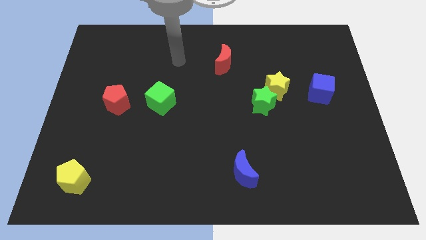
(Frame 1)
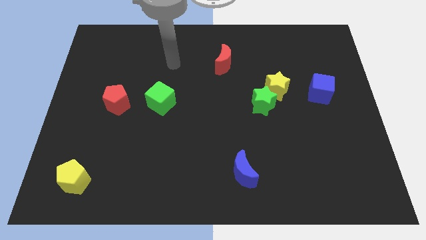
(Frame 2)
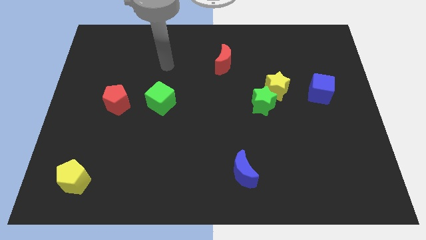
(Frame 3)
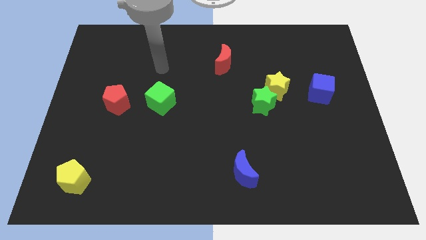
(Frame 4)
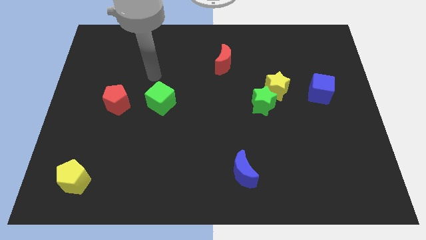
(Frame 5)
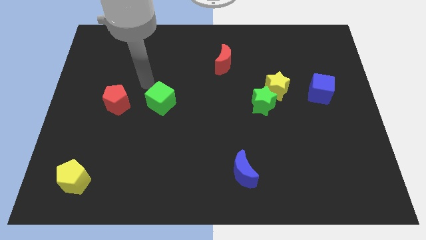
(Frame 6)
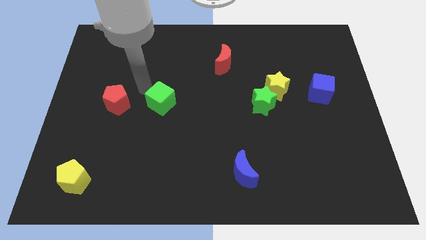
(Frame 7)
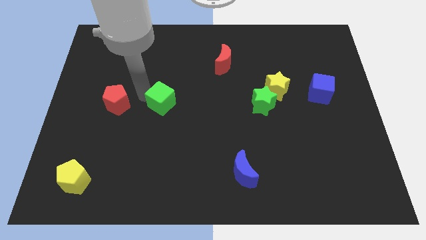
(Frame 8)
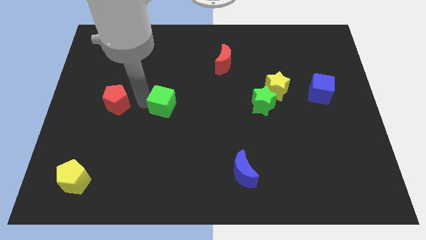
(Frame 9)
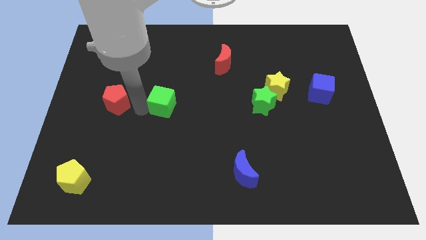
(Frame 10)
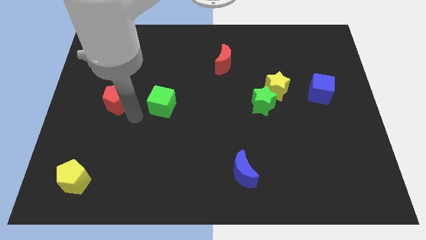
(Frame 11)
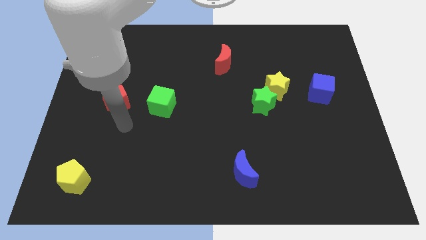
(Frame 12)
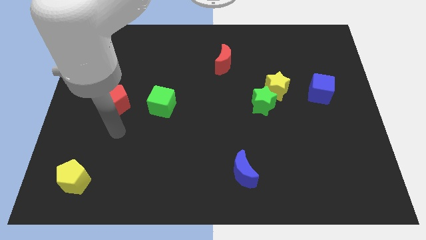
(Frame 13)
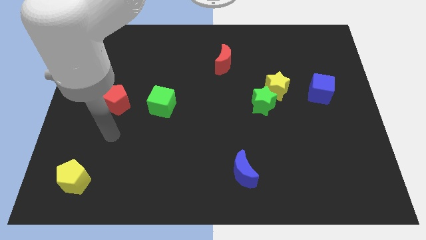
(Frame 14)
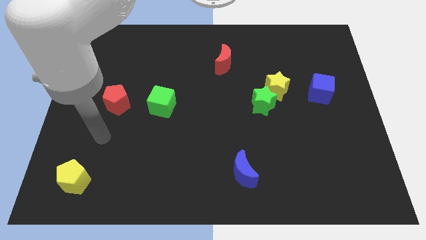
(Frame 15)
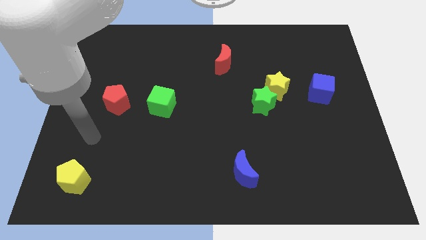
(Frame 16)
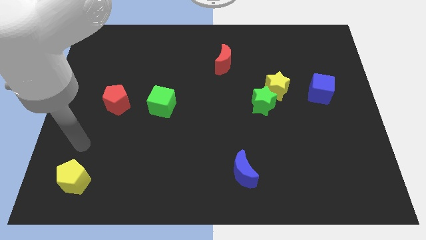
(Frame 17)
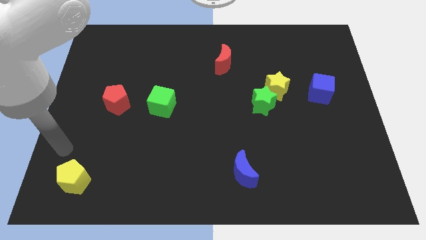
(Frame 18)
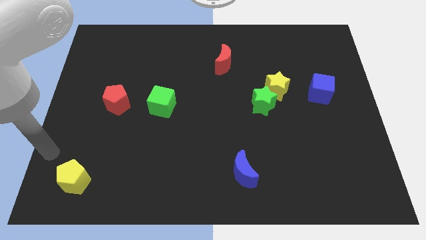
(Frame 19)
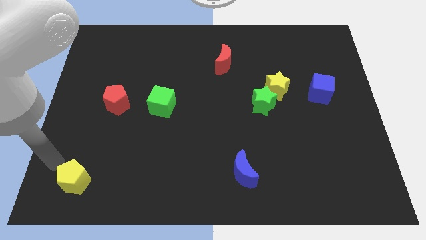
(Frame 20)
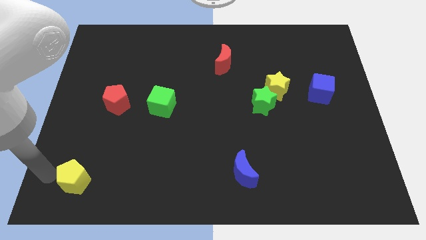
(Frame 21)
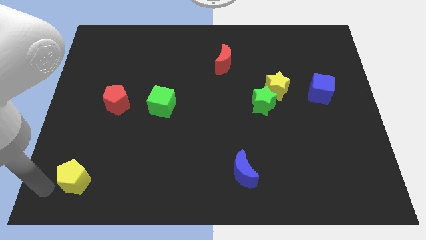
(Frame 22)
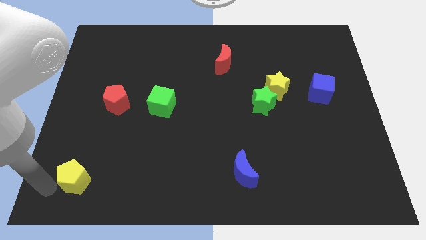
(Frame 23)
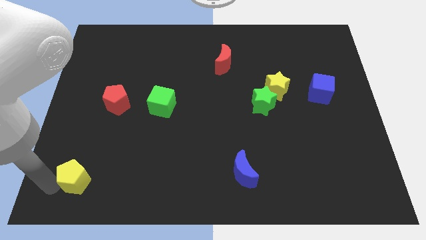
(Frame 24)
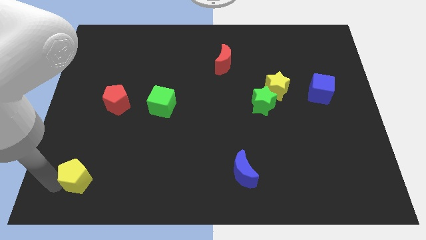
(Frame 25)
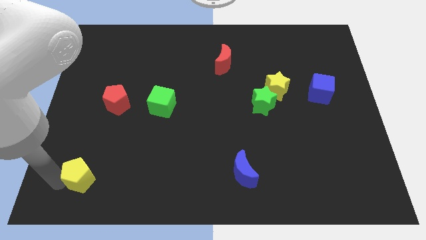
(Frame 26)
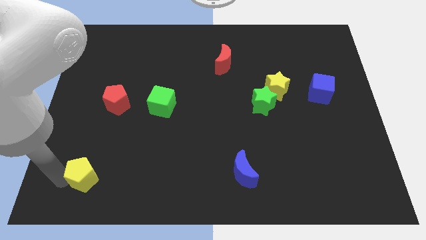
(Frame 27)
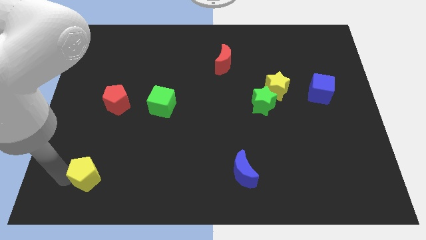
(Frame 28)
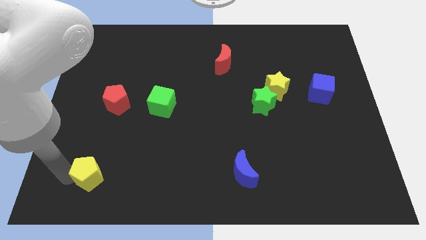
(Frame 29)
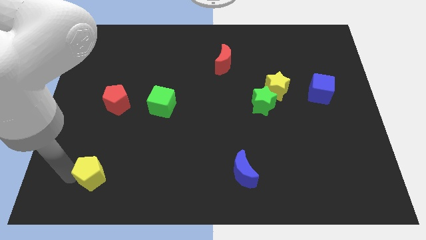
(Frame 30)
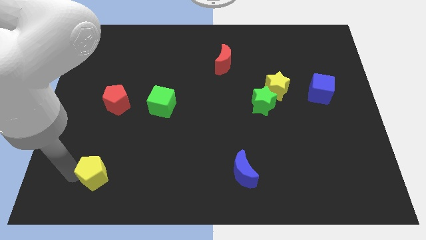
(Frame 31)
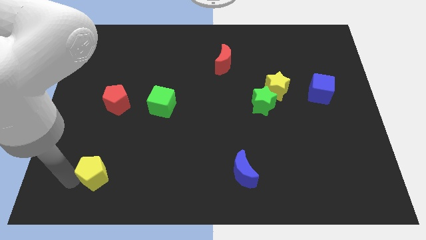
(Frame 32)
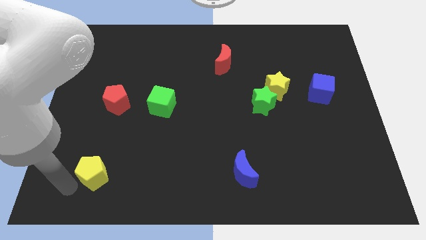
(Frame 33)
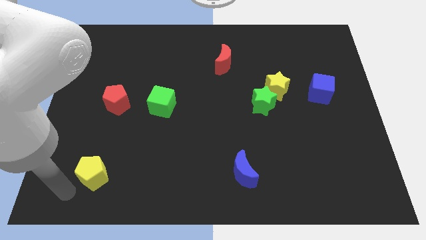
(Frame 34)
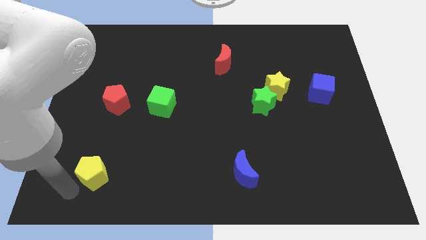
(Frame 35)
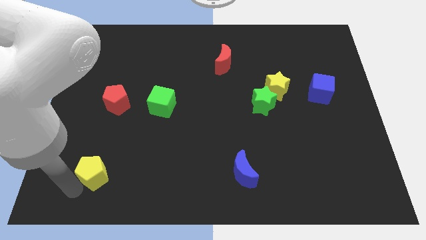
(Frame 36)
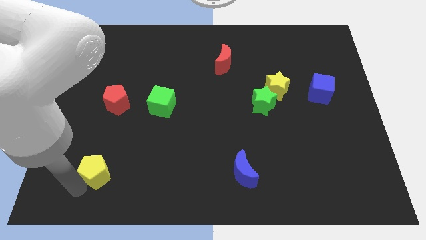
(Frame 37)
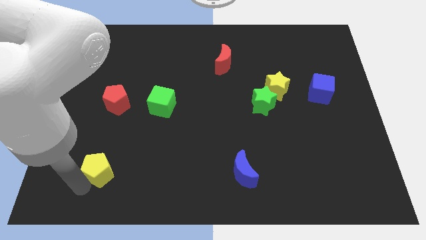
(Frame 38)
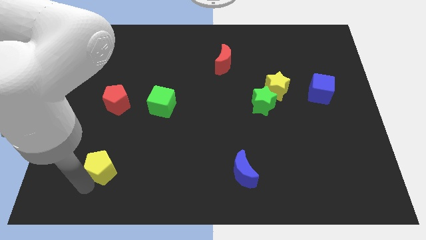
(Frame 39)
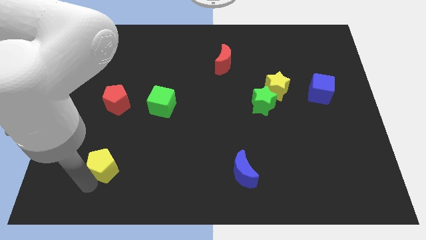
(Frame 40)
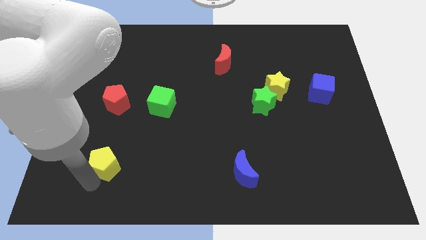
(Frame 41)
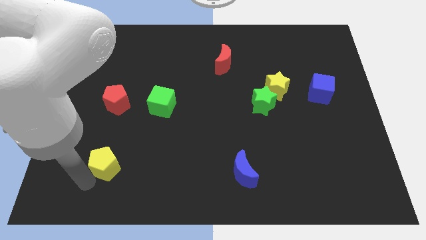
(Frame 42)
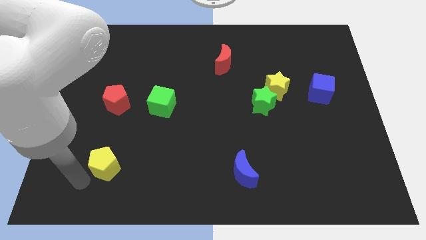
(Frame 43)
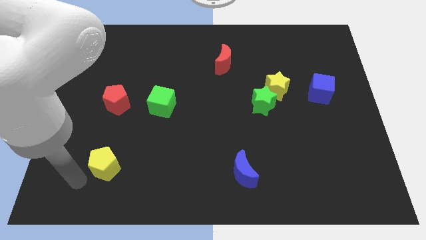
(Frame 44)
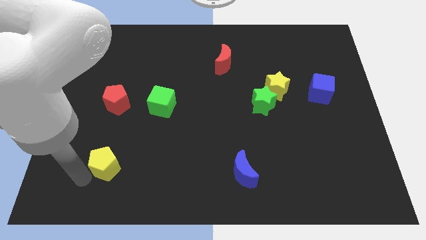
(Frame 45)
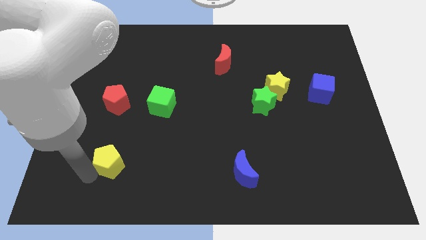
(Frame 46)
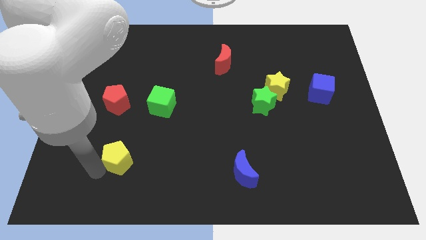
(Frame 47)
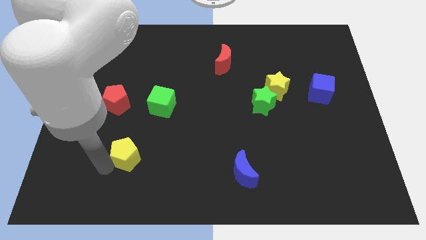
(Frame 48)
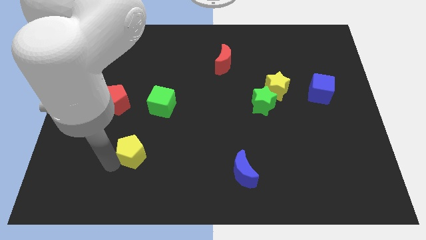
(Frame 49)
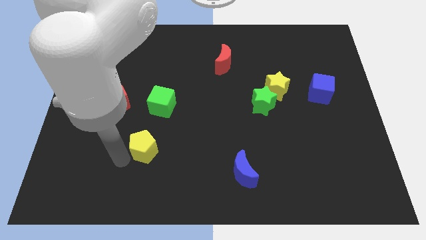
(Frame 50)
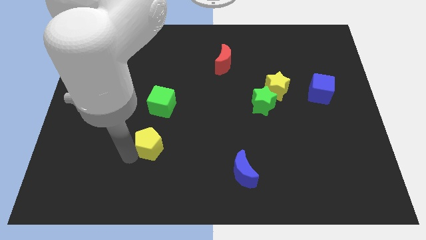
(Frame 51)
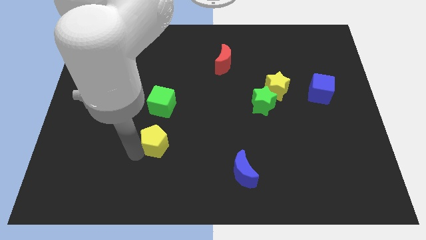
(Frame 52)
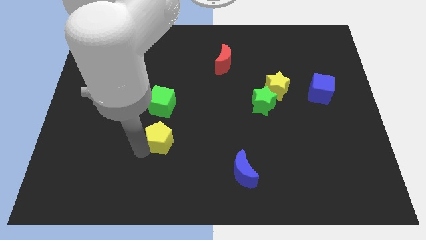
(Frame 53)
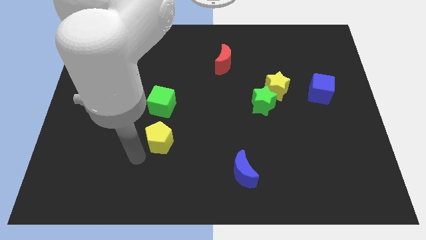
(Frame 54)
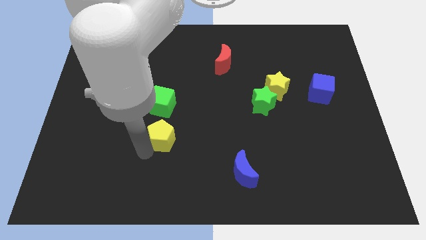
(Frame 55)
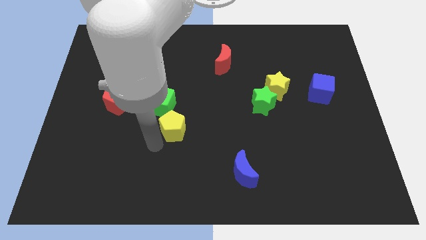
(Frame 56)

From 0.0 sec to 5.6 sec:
move the yellow pentagon to the middle of the board

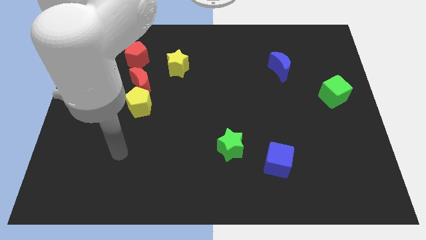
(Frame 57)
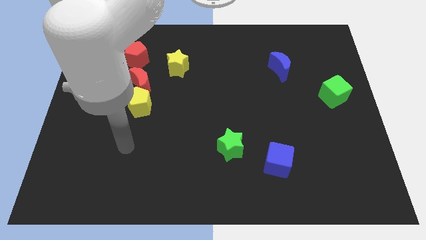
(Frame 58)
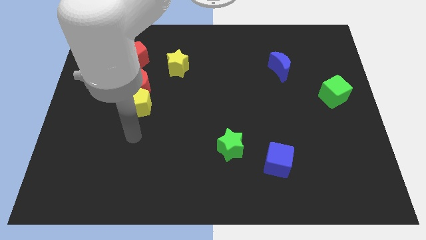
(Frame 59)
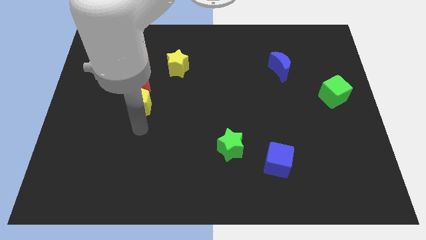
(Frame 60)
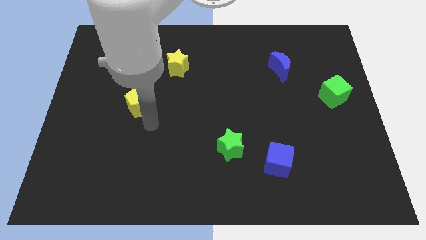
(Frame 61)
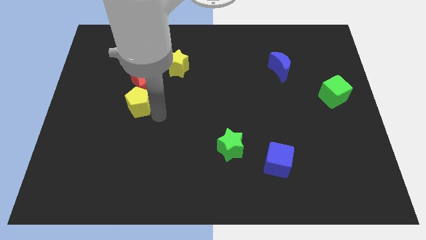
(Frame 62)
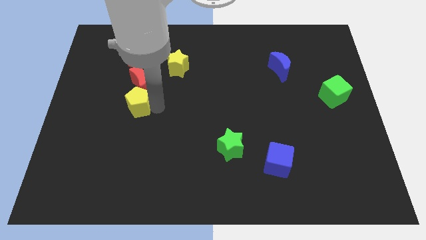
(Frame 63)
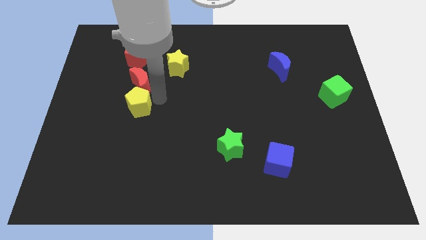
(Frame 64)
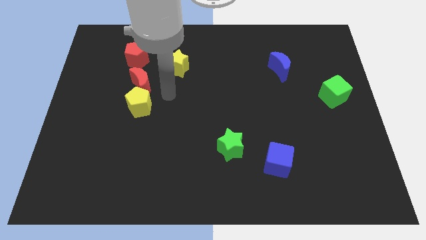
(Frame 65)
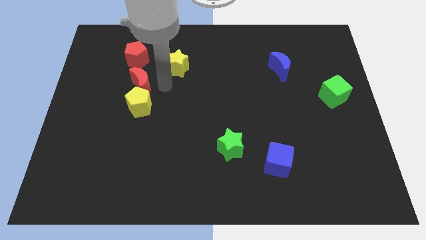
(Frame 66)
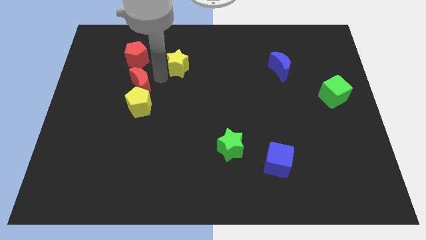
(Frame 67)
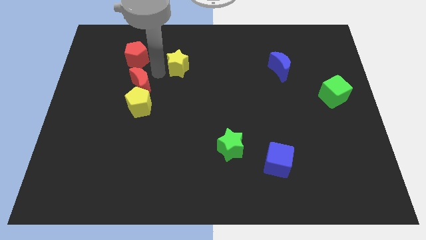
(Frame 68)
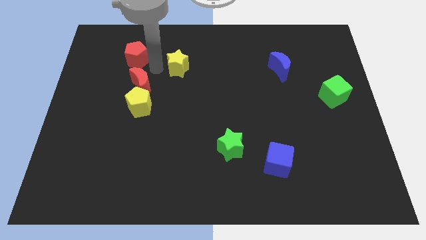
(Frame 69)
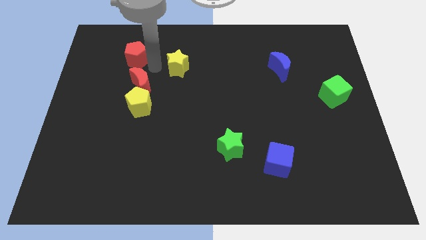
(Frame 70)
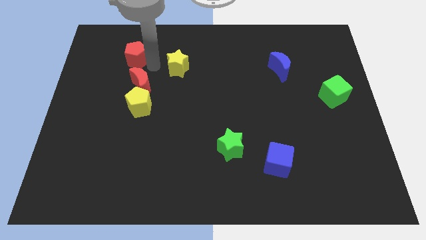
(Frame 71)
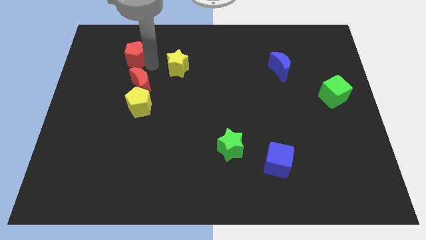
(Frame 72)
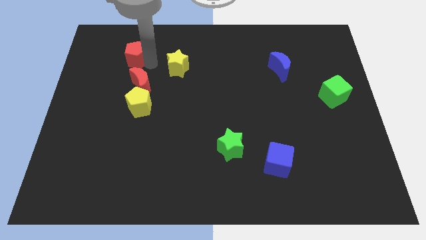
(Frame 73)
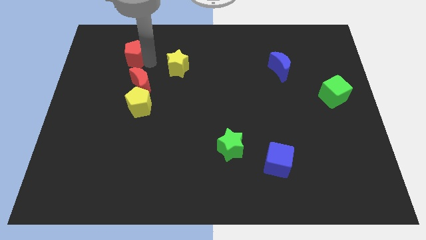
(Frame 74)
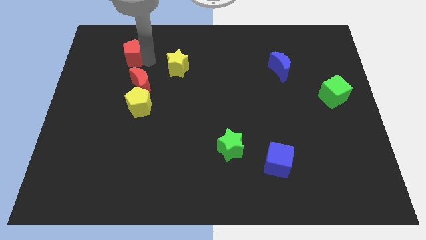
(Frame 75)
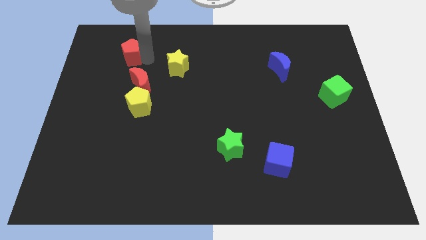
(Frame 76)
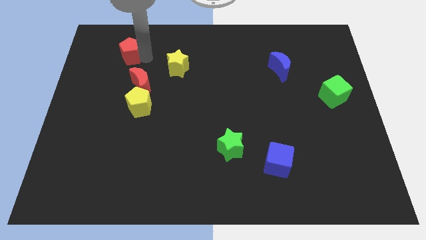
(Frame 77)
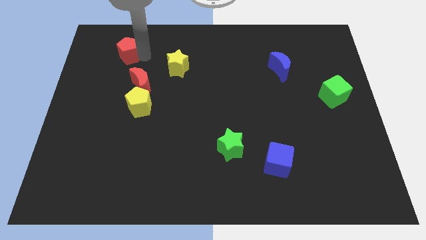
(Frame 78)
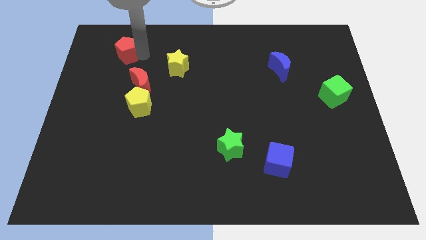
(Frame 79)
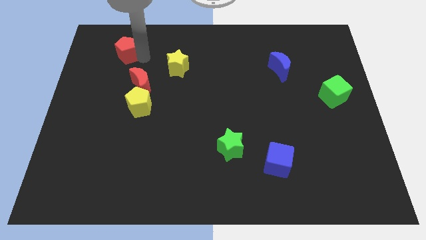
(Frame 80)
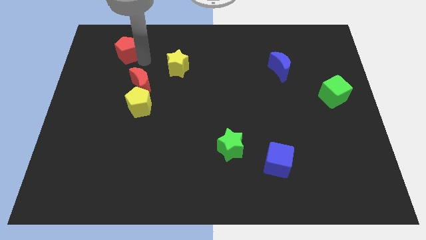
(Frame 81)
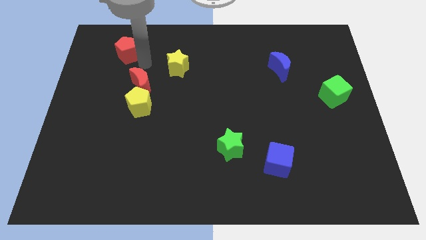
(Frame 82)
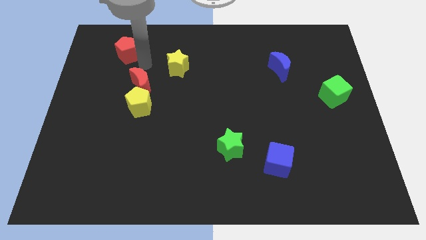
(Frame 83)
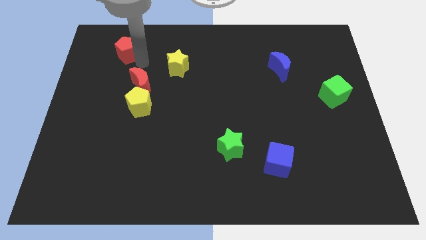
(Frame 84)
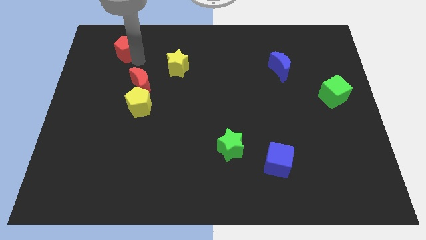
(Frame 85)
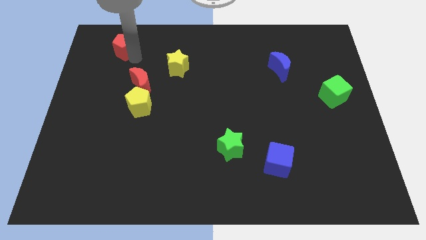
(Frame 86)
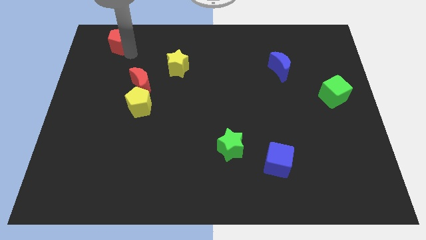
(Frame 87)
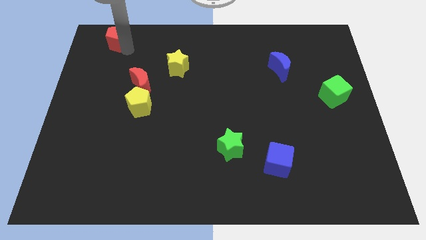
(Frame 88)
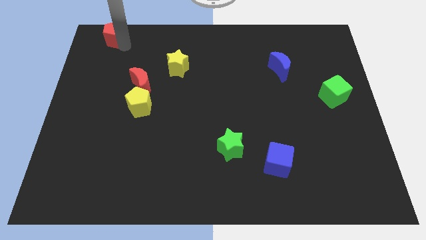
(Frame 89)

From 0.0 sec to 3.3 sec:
move the red pentagon to the top left corner
